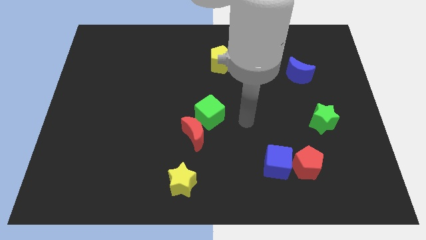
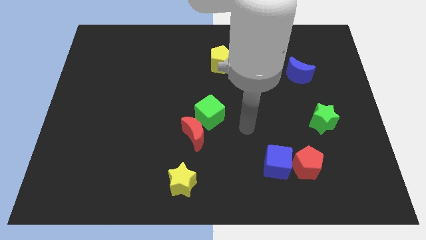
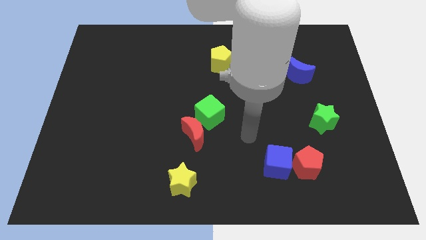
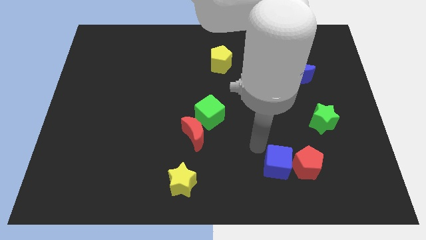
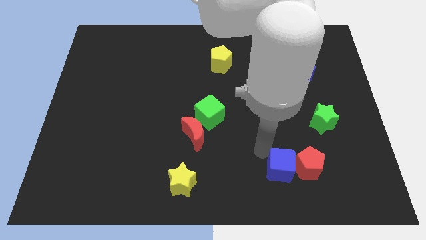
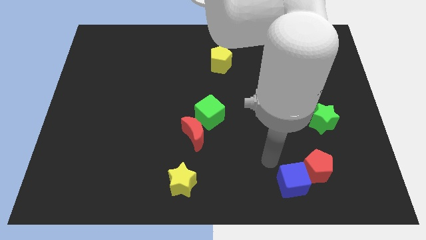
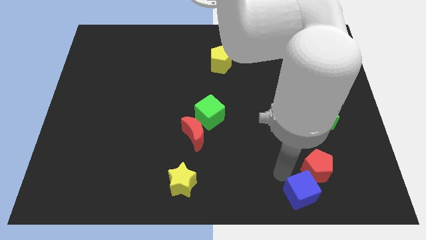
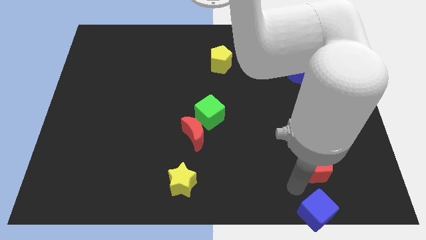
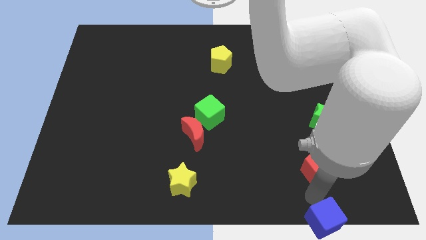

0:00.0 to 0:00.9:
separate the red pentagon from the blue cube

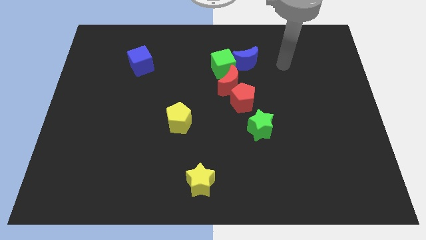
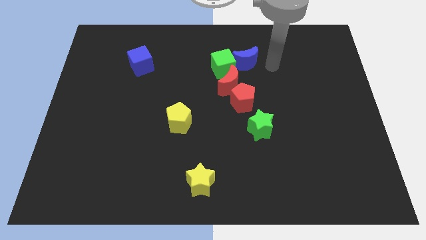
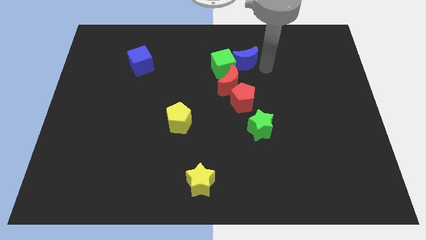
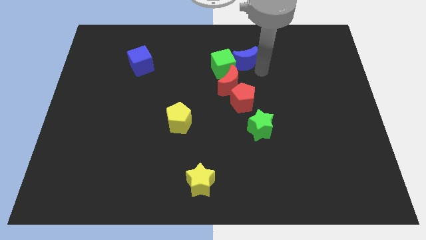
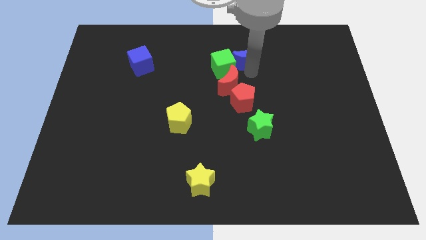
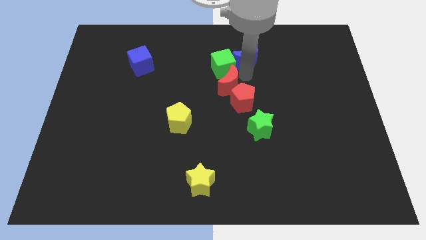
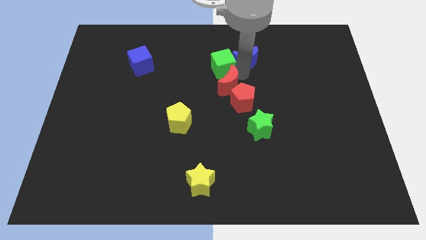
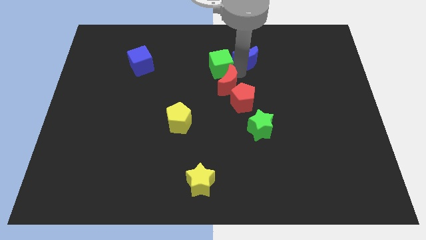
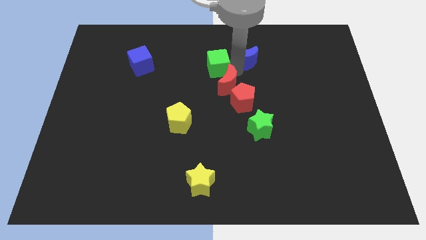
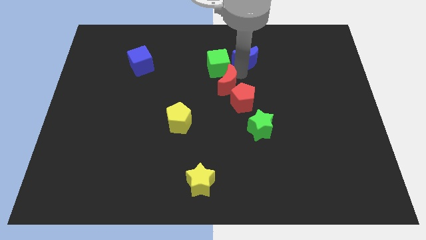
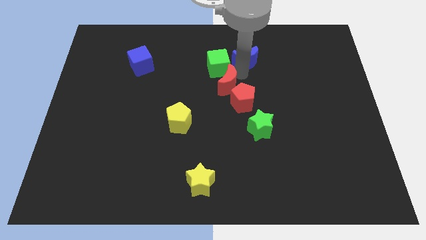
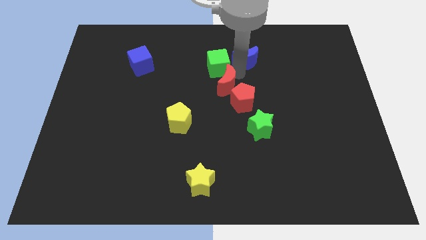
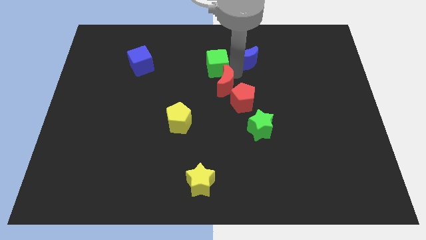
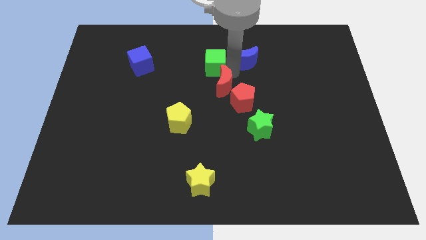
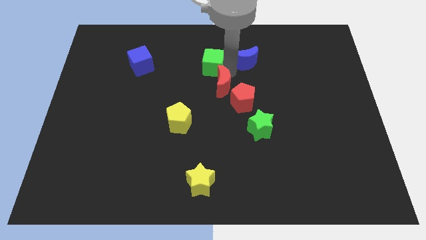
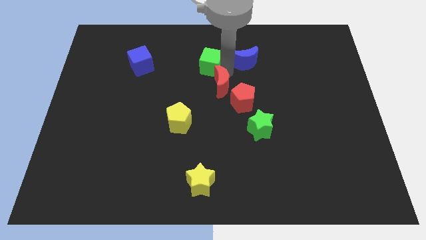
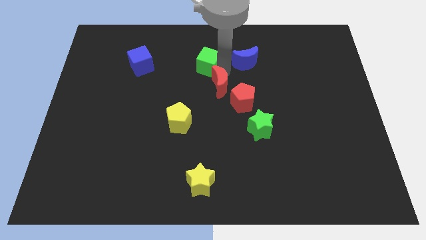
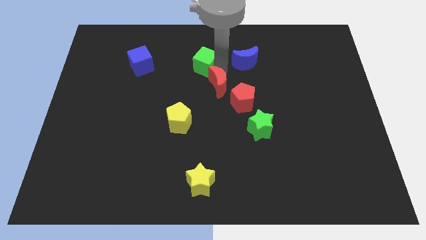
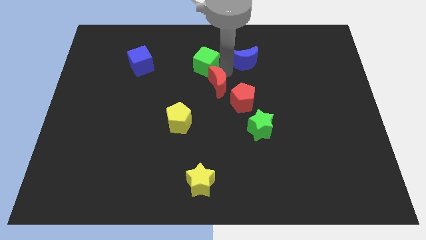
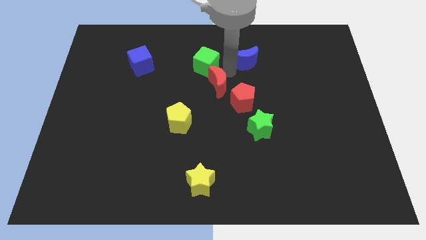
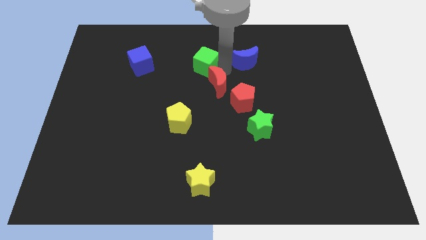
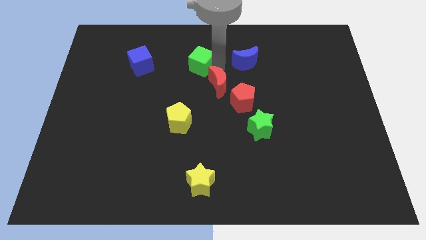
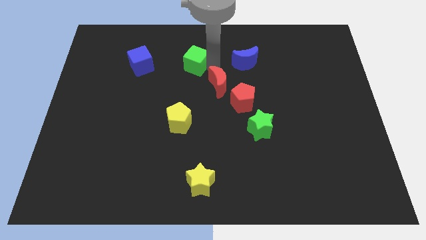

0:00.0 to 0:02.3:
move the green cube away from the blue moon and red moon

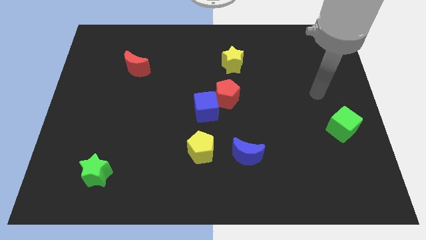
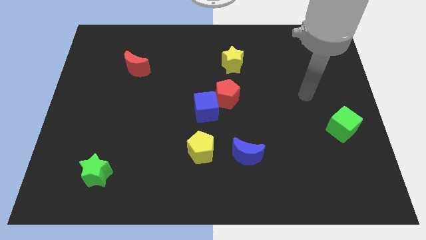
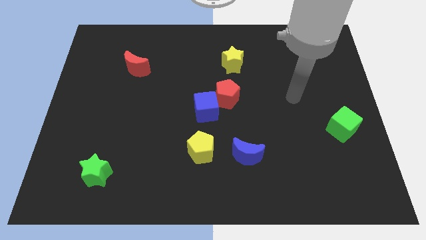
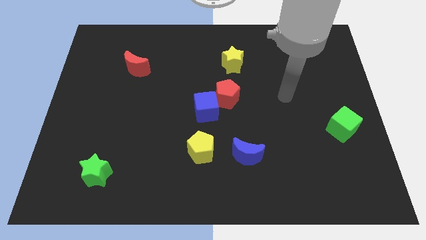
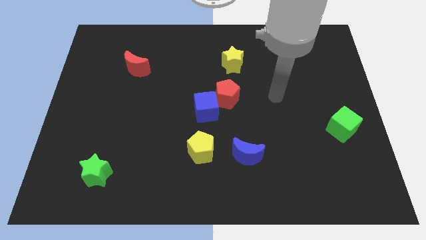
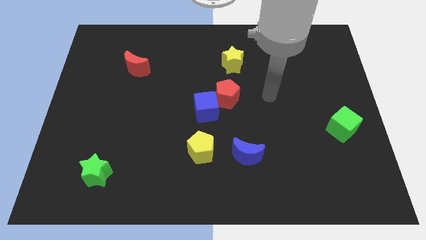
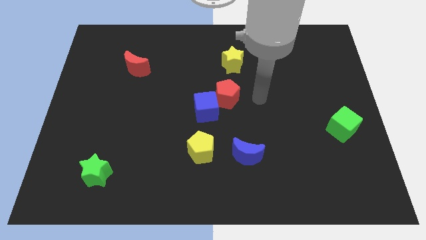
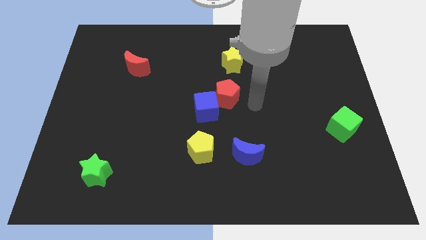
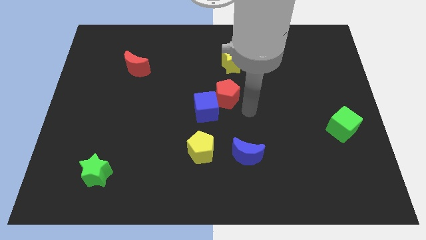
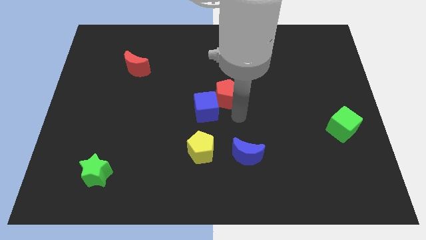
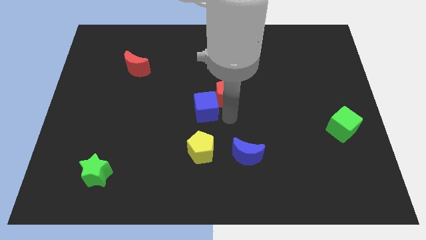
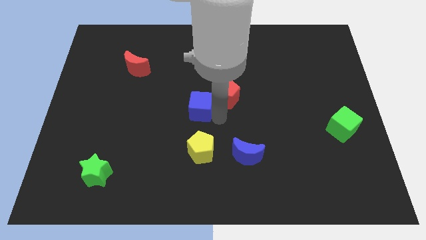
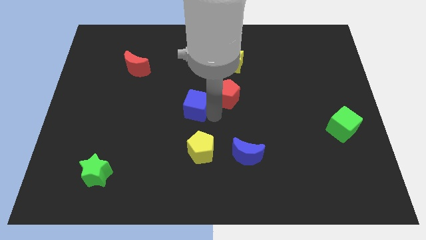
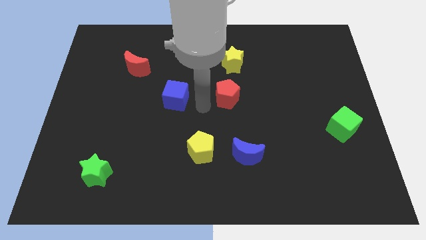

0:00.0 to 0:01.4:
pull the red pentagon apart from the blue cube

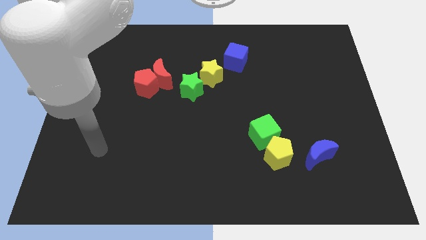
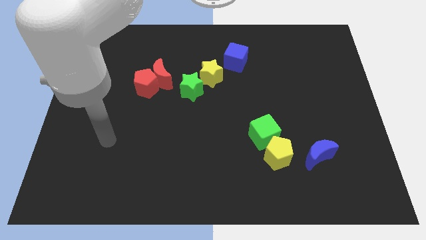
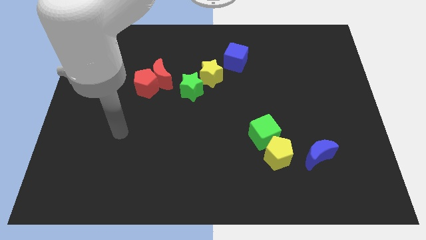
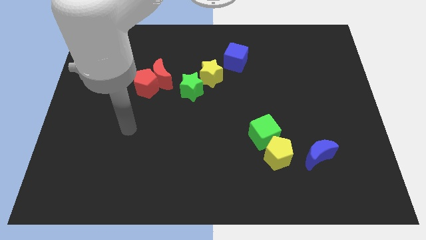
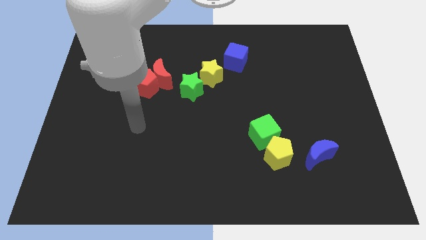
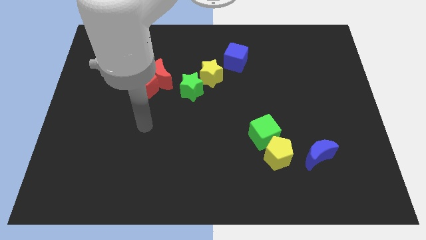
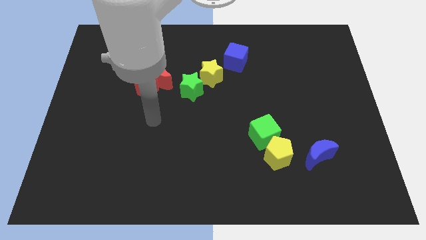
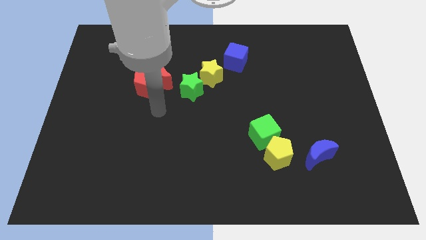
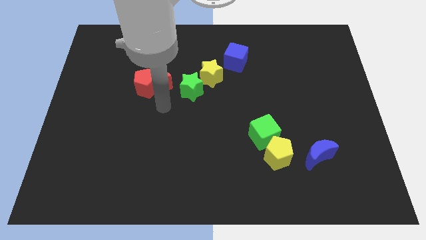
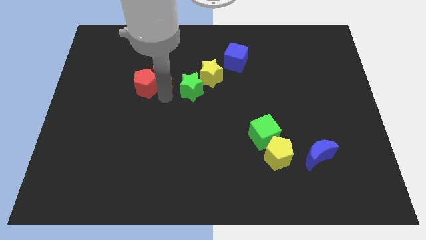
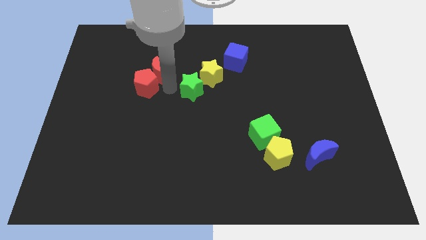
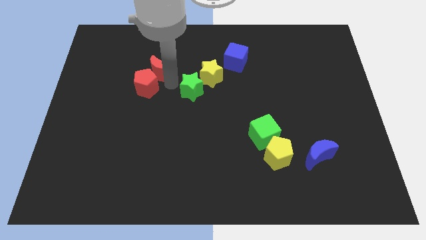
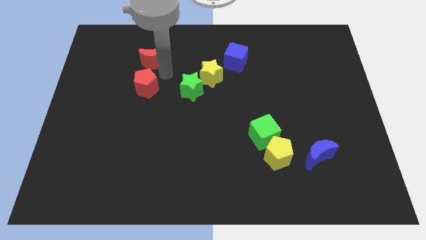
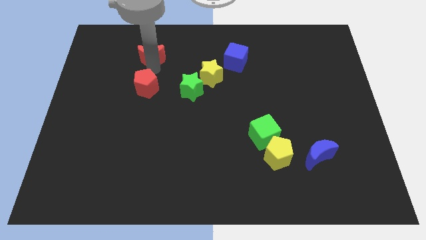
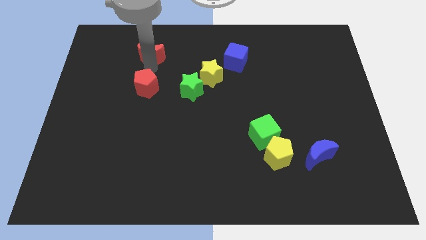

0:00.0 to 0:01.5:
separate the red pentagon from the red moon

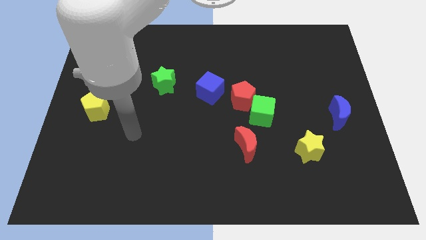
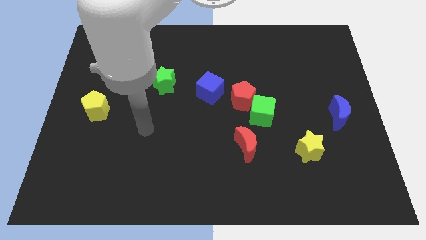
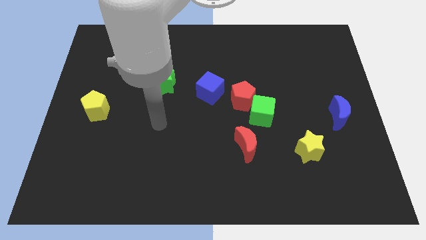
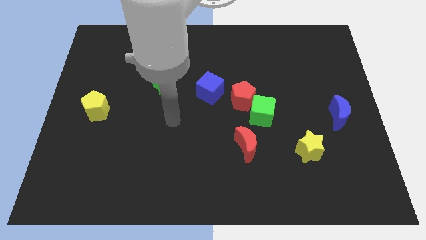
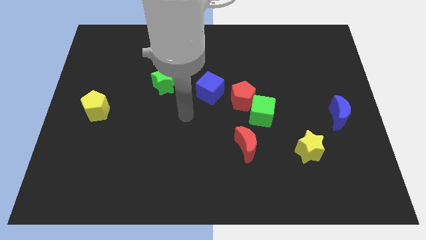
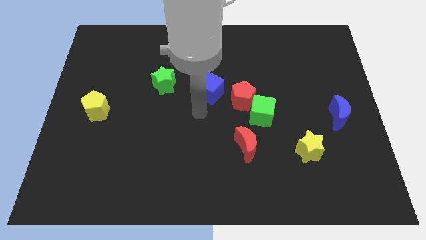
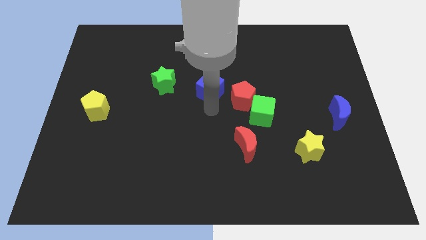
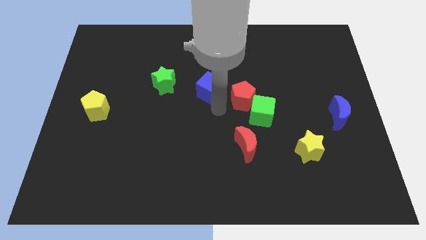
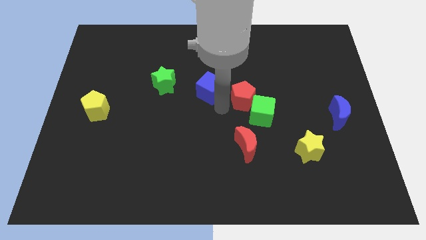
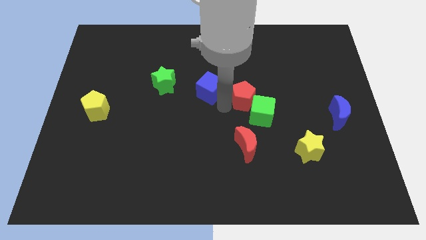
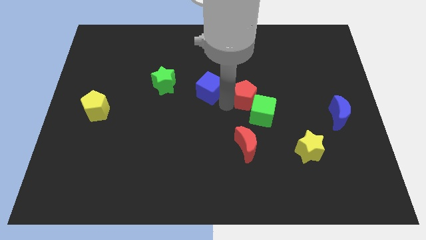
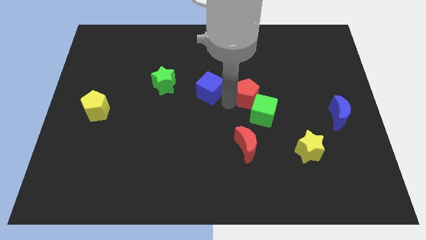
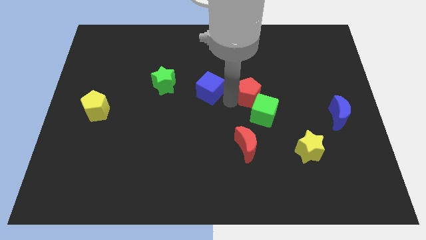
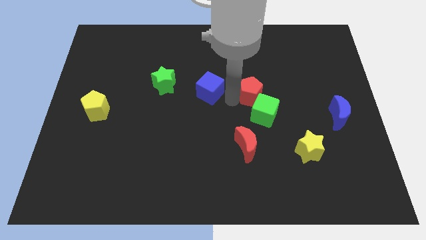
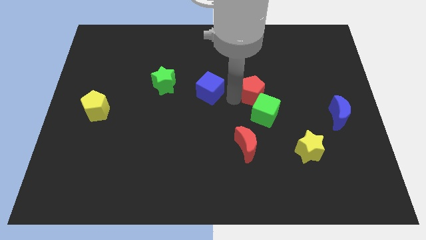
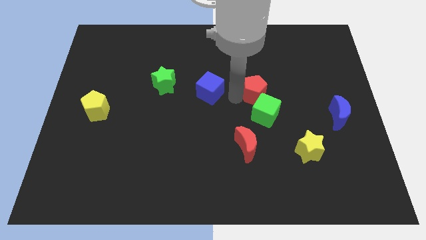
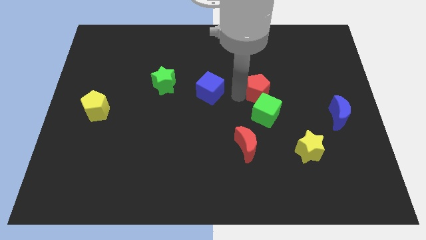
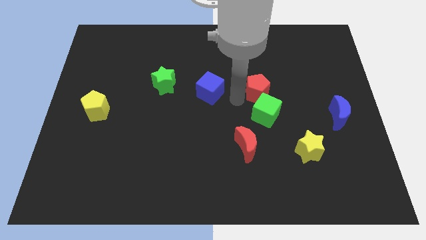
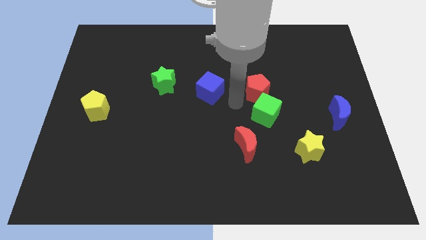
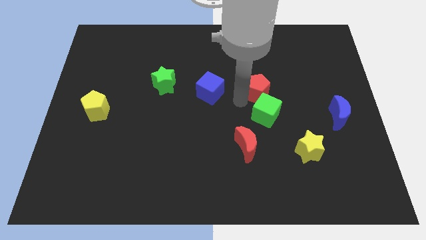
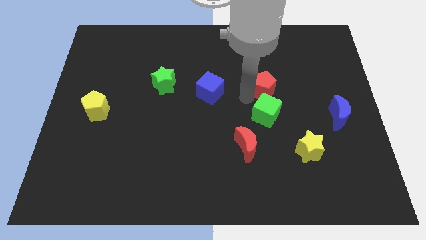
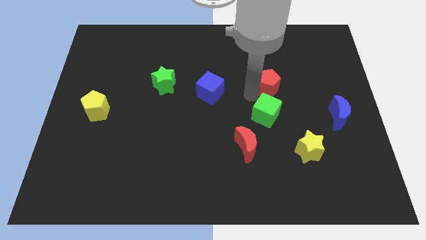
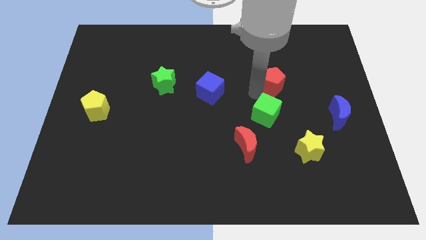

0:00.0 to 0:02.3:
move the red pentagon away from the green cube and blue cube

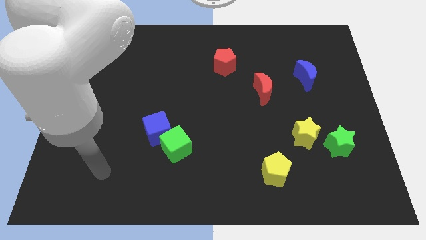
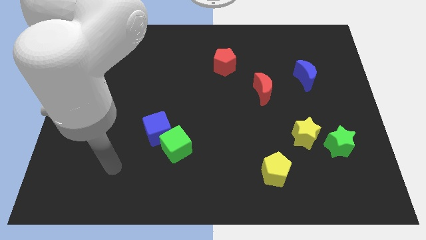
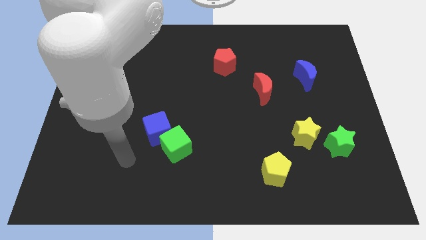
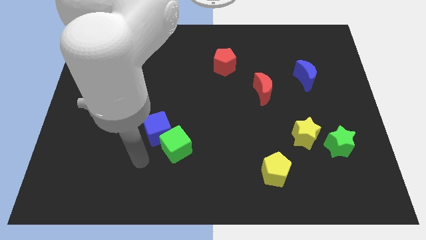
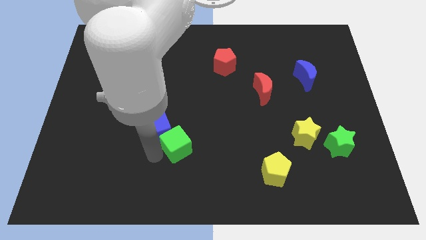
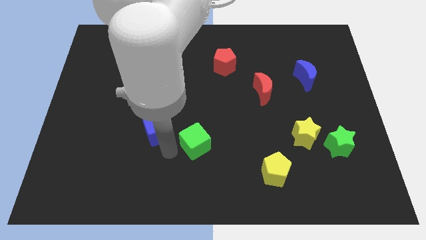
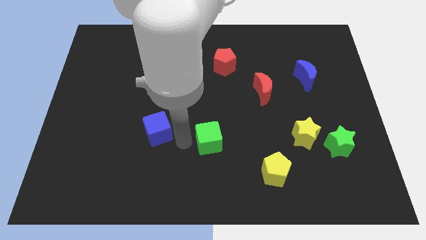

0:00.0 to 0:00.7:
pull the blue cube apart from the green cube
